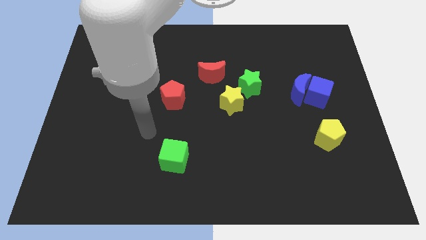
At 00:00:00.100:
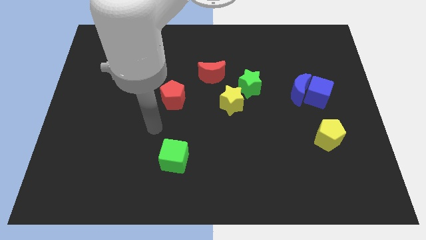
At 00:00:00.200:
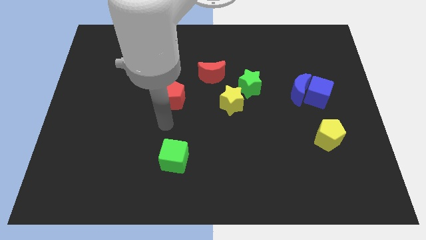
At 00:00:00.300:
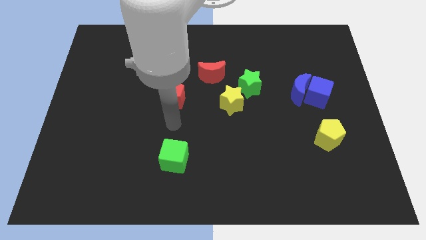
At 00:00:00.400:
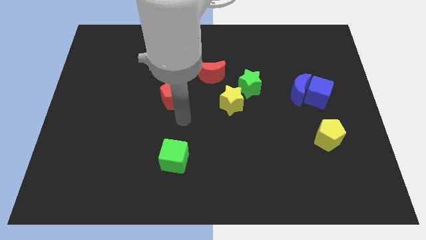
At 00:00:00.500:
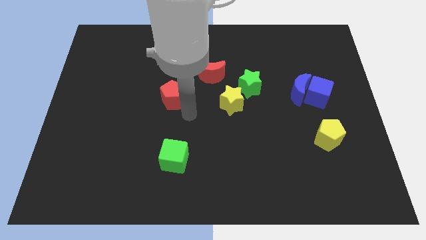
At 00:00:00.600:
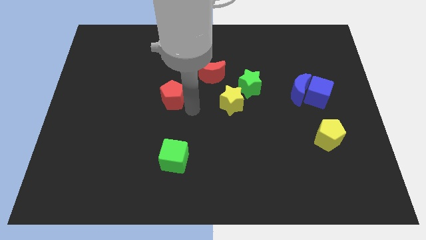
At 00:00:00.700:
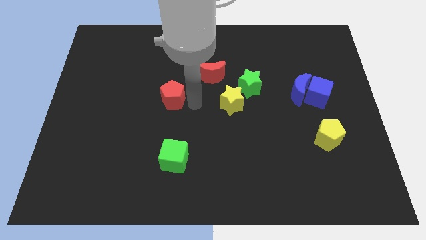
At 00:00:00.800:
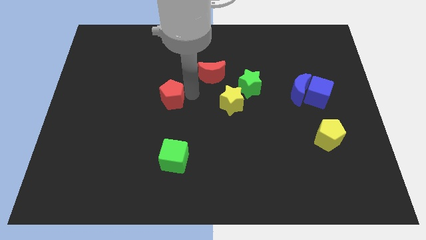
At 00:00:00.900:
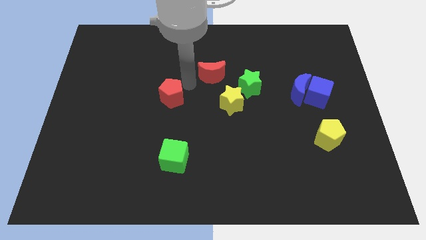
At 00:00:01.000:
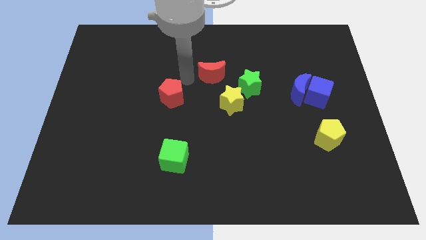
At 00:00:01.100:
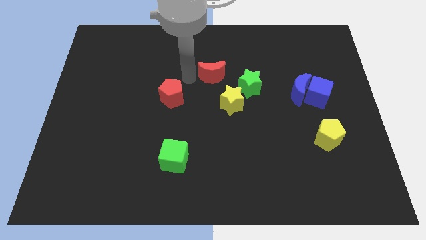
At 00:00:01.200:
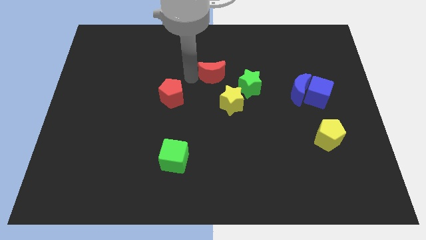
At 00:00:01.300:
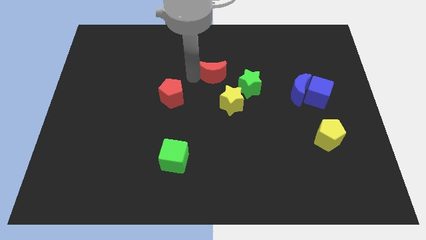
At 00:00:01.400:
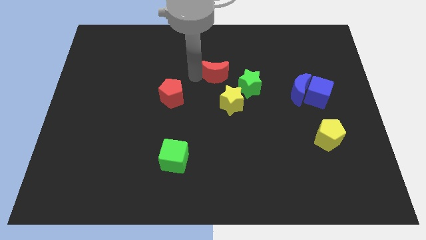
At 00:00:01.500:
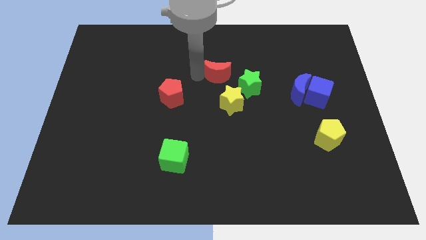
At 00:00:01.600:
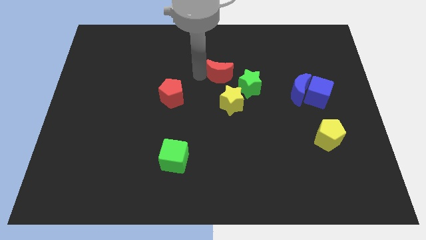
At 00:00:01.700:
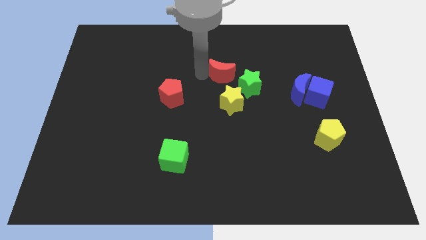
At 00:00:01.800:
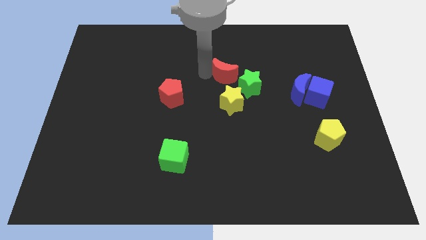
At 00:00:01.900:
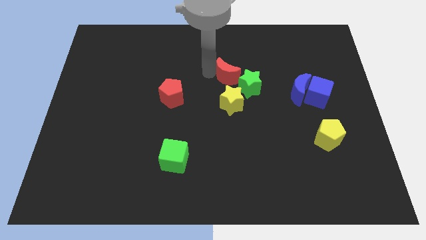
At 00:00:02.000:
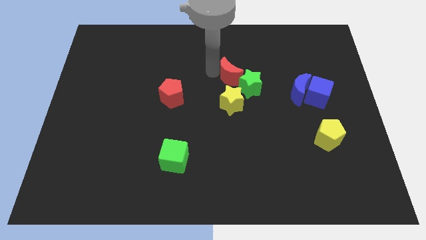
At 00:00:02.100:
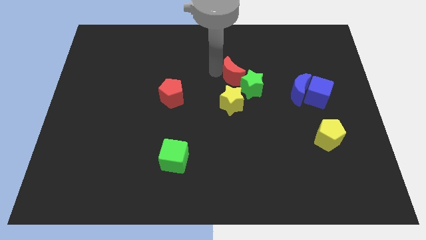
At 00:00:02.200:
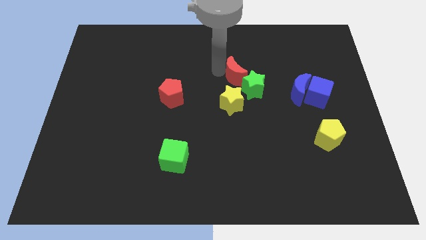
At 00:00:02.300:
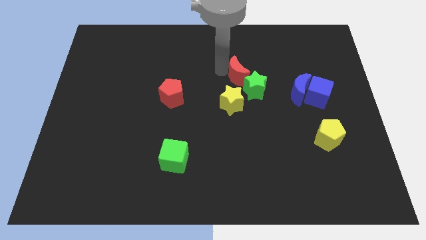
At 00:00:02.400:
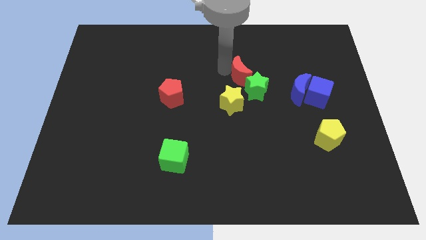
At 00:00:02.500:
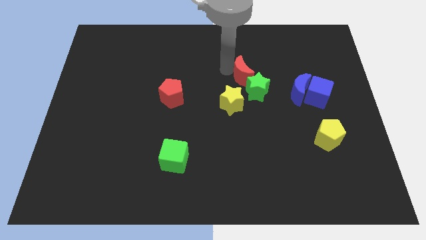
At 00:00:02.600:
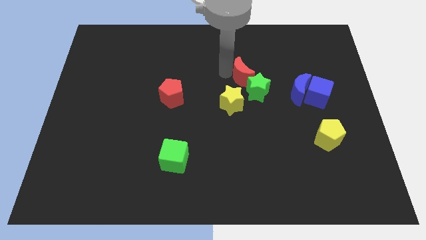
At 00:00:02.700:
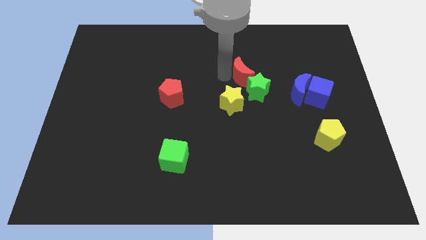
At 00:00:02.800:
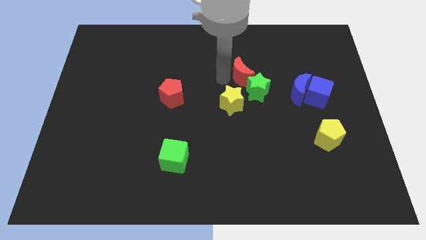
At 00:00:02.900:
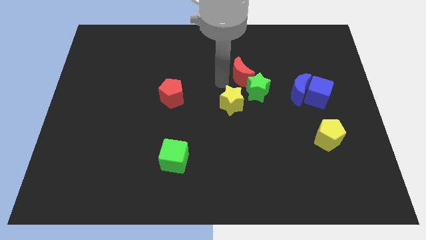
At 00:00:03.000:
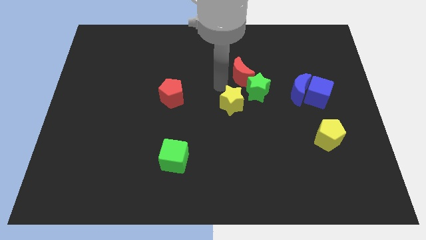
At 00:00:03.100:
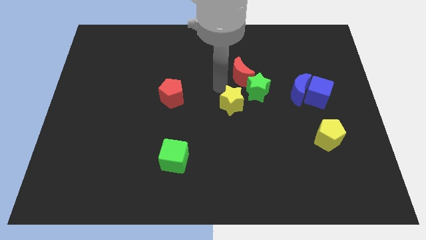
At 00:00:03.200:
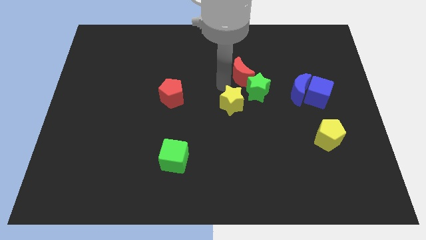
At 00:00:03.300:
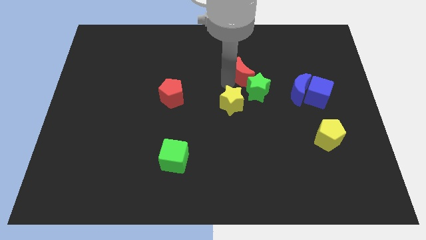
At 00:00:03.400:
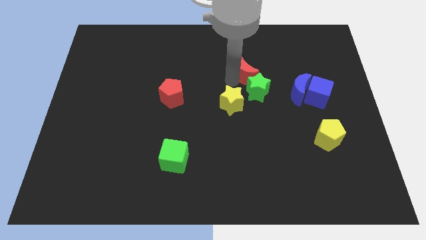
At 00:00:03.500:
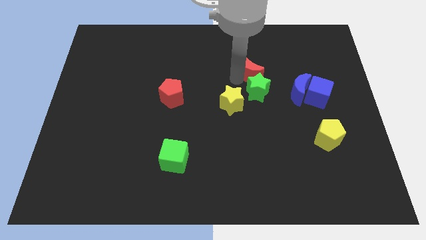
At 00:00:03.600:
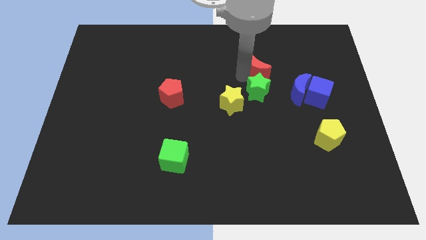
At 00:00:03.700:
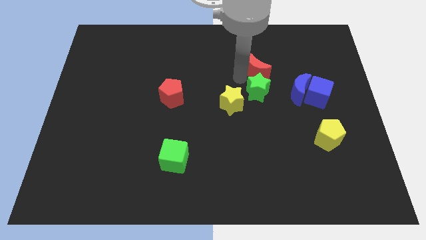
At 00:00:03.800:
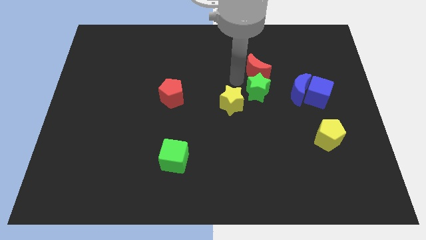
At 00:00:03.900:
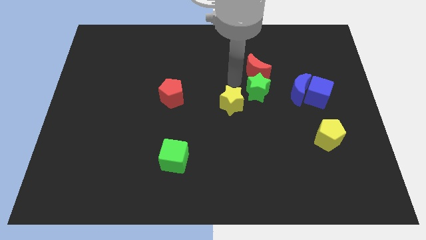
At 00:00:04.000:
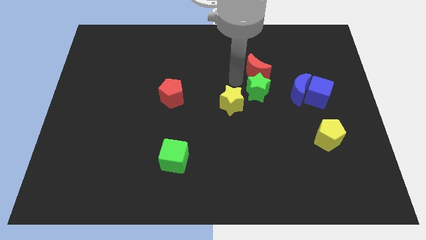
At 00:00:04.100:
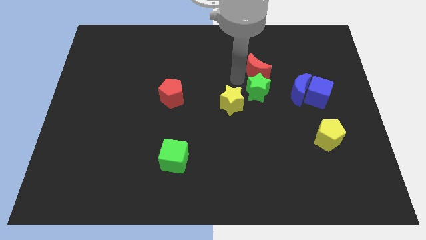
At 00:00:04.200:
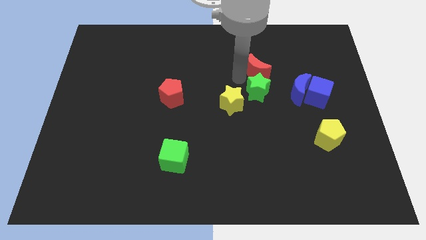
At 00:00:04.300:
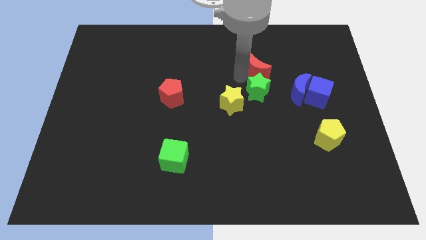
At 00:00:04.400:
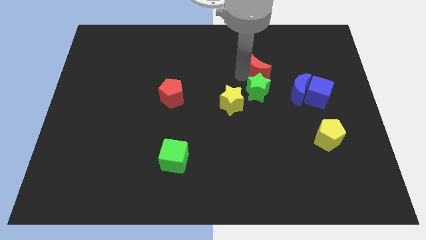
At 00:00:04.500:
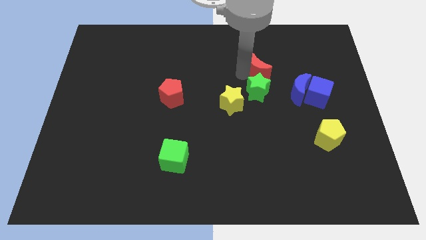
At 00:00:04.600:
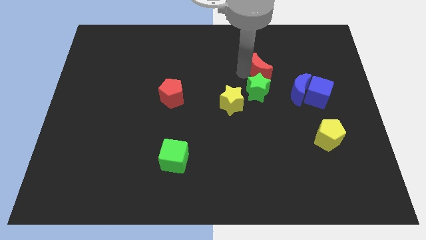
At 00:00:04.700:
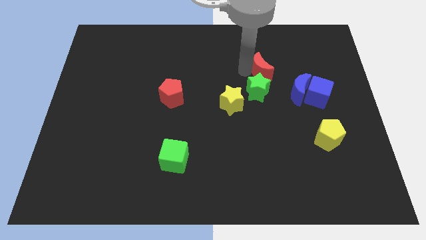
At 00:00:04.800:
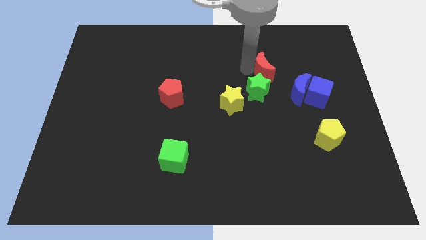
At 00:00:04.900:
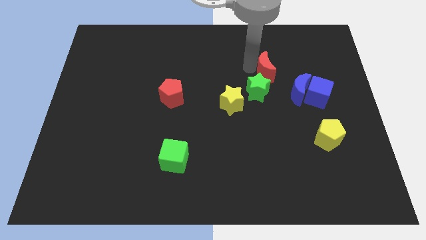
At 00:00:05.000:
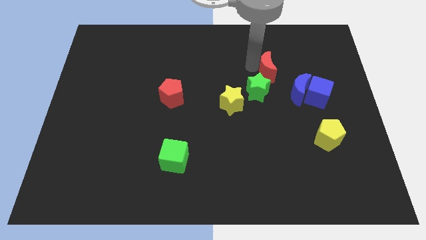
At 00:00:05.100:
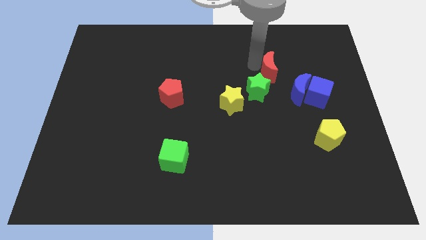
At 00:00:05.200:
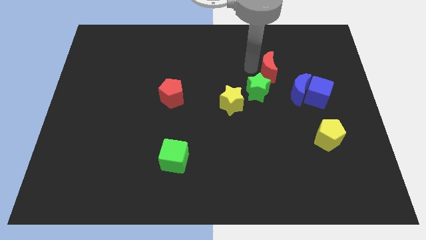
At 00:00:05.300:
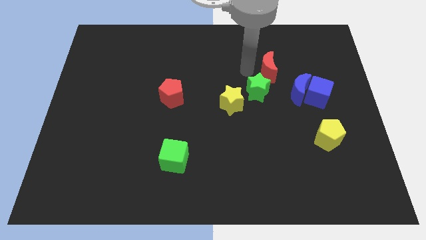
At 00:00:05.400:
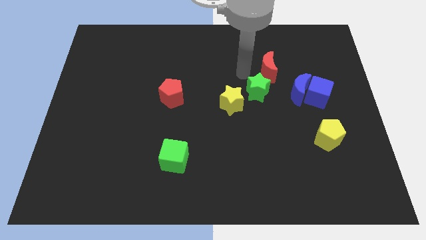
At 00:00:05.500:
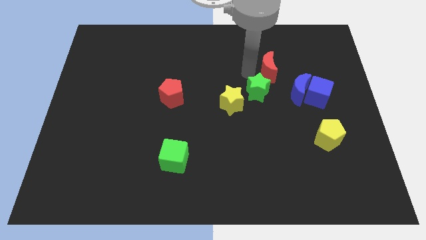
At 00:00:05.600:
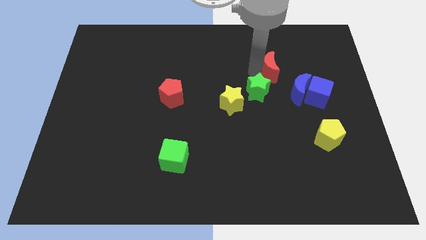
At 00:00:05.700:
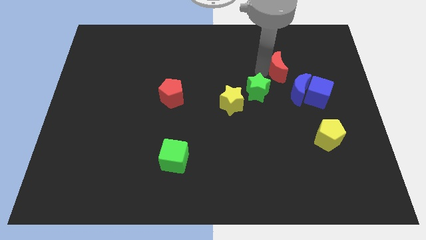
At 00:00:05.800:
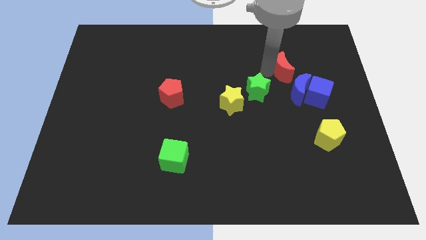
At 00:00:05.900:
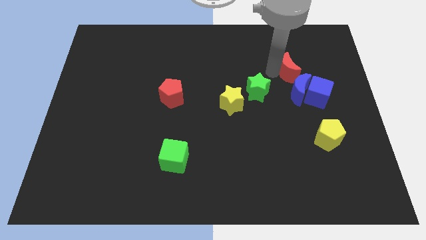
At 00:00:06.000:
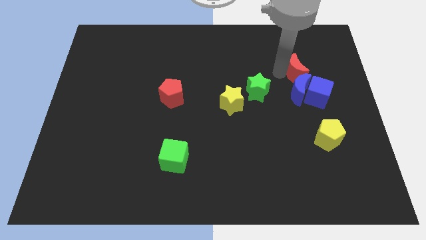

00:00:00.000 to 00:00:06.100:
put the red moon above the blue cube

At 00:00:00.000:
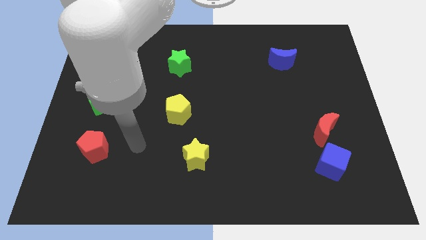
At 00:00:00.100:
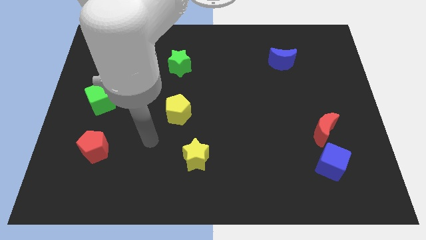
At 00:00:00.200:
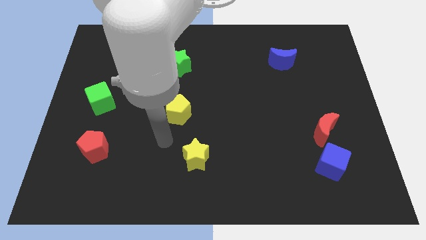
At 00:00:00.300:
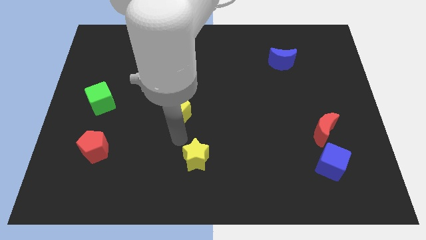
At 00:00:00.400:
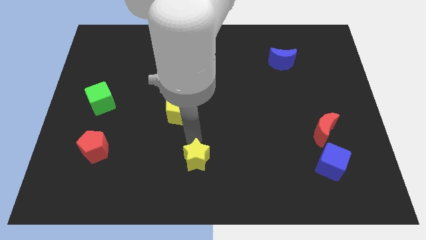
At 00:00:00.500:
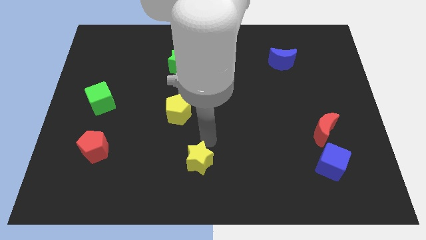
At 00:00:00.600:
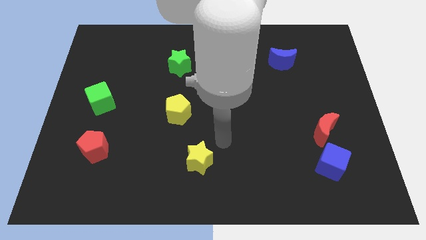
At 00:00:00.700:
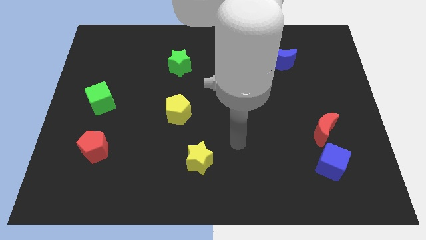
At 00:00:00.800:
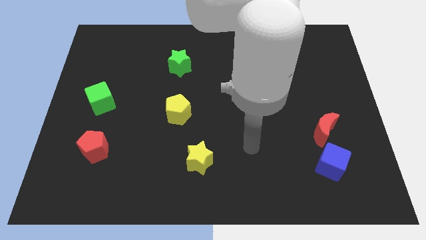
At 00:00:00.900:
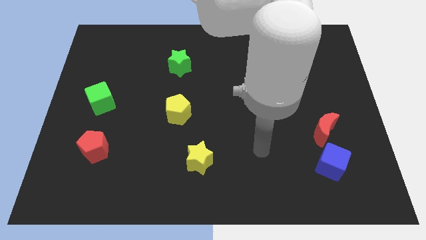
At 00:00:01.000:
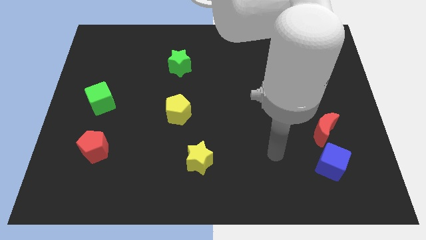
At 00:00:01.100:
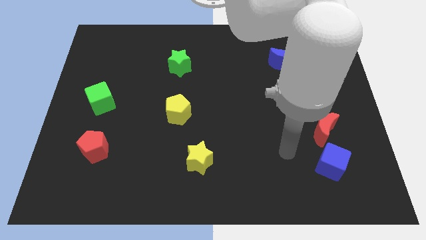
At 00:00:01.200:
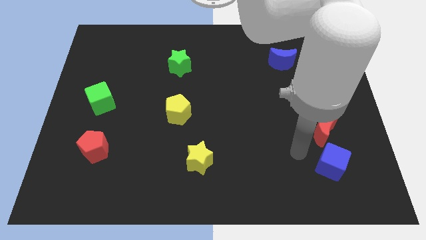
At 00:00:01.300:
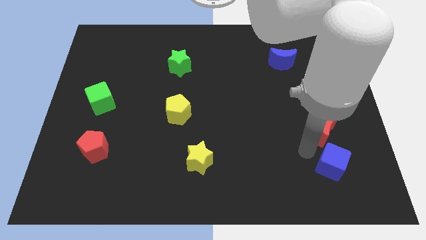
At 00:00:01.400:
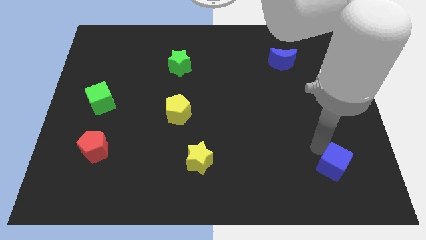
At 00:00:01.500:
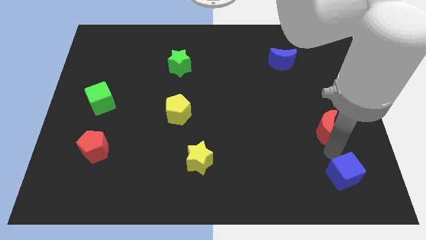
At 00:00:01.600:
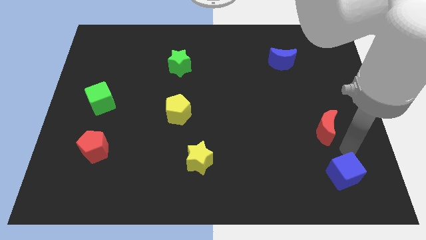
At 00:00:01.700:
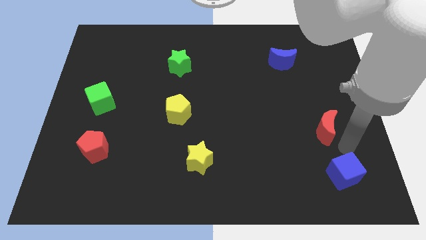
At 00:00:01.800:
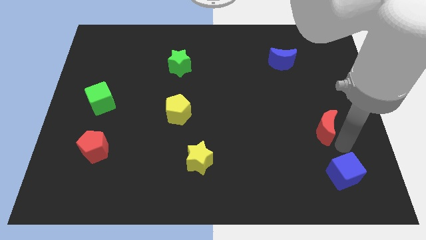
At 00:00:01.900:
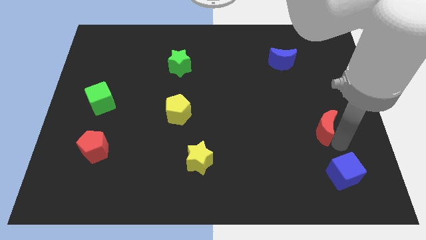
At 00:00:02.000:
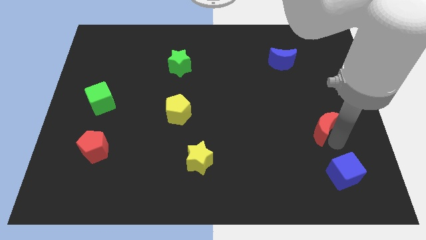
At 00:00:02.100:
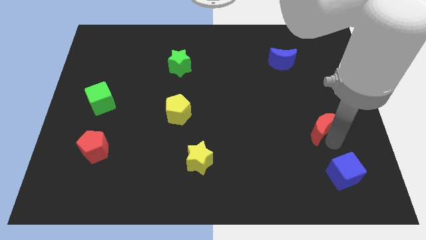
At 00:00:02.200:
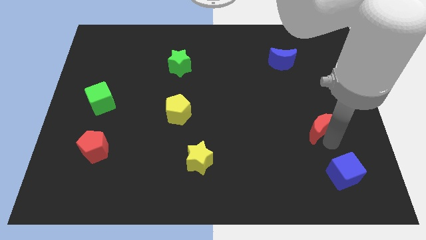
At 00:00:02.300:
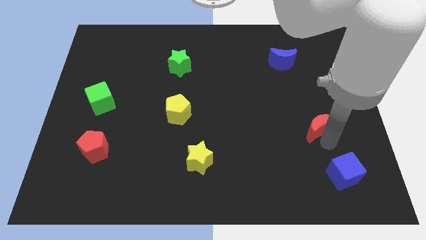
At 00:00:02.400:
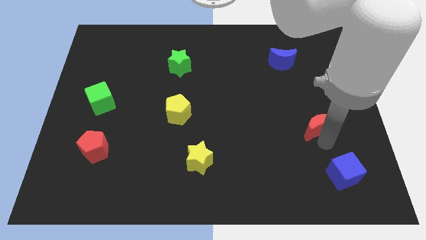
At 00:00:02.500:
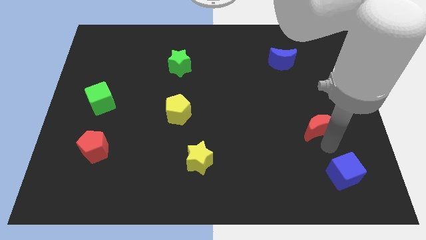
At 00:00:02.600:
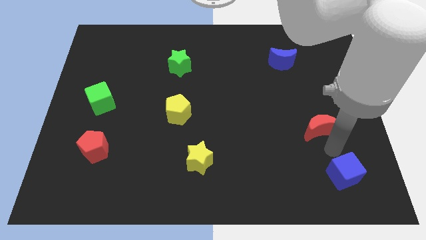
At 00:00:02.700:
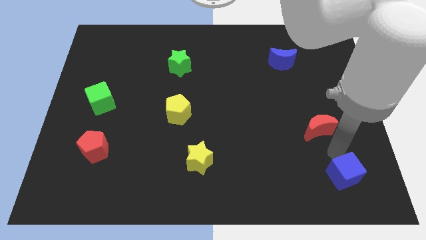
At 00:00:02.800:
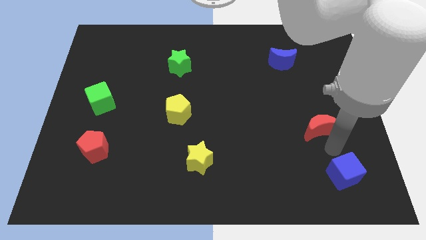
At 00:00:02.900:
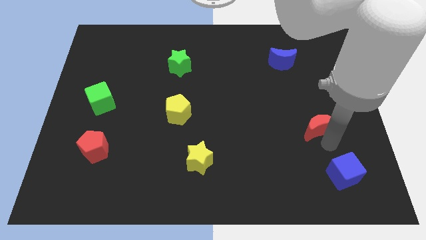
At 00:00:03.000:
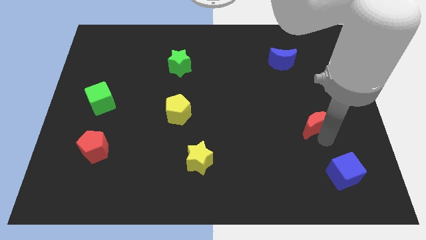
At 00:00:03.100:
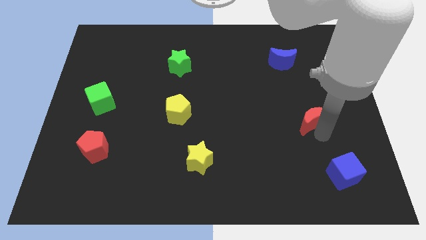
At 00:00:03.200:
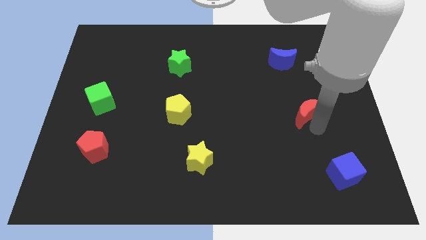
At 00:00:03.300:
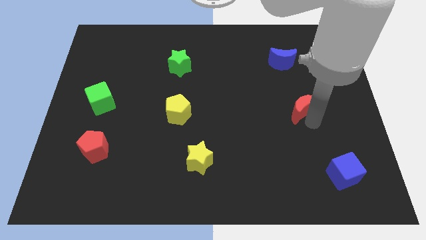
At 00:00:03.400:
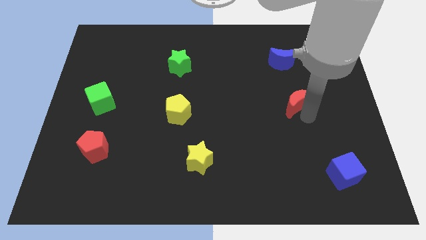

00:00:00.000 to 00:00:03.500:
push the red moon below the blue moon
